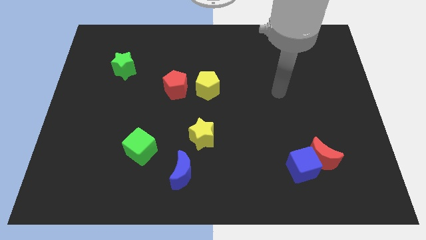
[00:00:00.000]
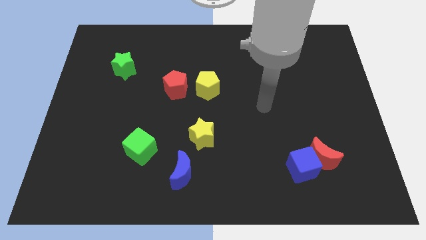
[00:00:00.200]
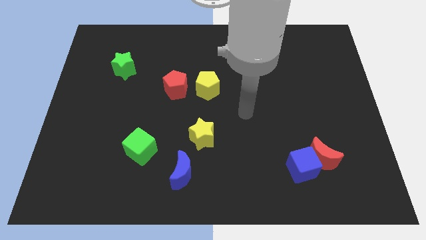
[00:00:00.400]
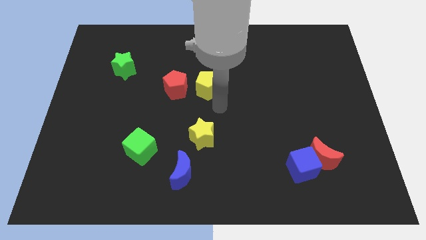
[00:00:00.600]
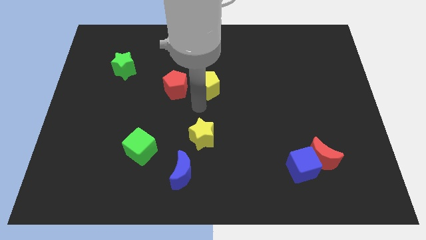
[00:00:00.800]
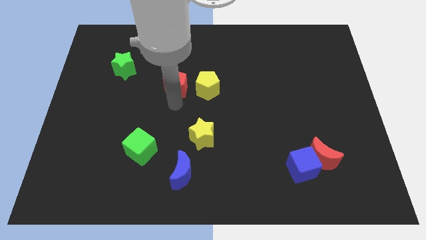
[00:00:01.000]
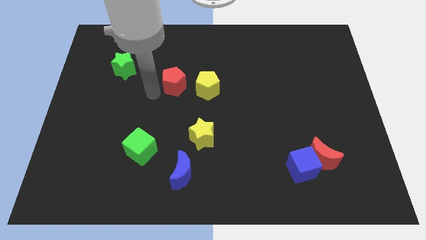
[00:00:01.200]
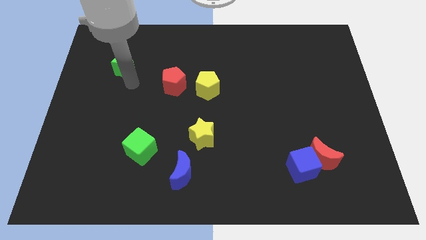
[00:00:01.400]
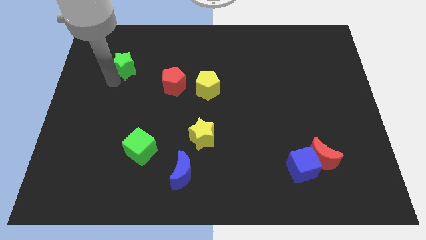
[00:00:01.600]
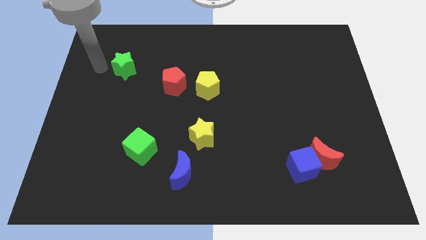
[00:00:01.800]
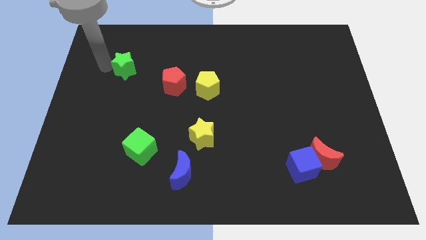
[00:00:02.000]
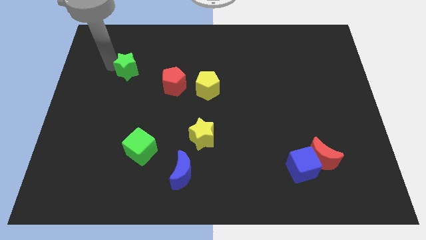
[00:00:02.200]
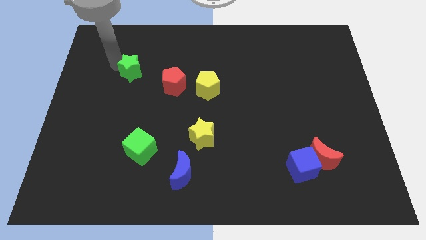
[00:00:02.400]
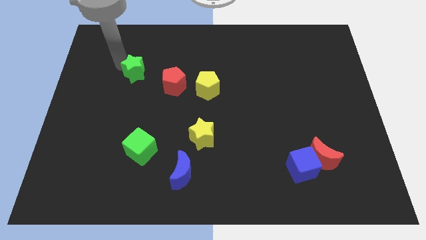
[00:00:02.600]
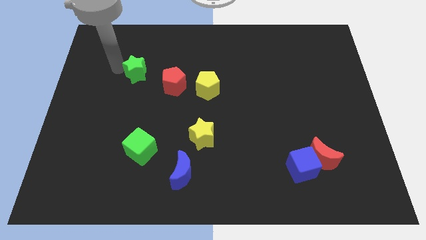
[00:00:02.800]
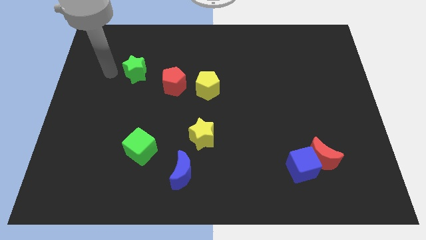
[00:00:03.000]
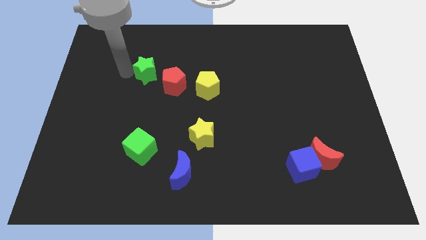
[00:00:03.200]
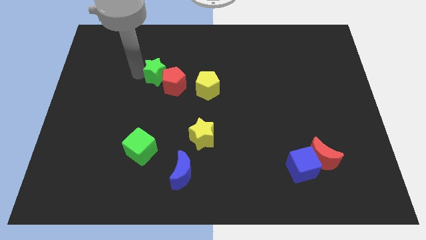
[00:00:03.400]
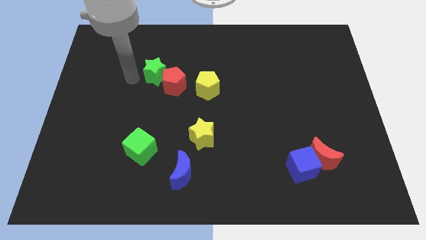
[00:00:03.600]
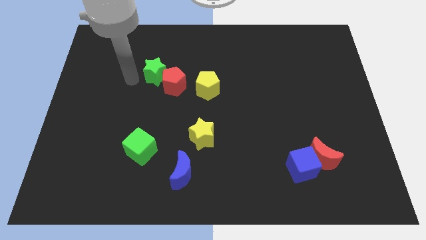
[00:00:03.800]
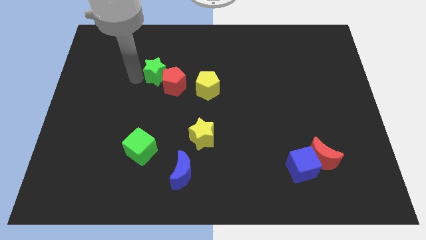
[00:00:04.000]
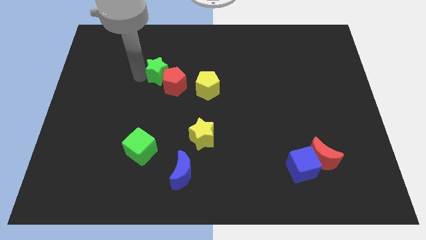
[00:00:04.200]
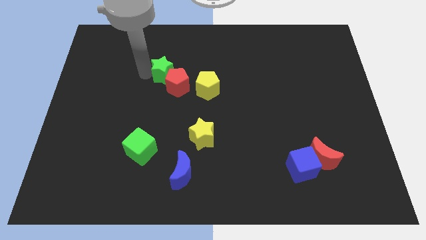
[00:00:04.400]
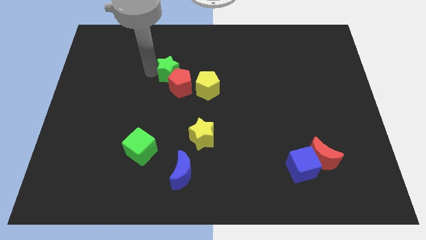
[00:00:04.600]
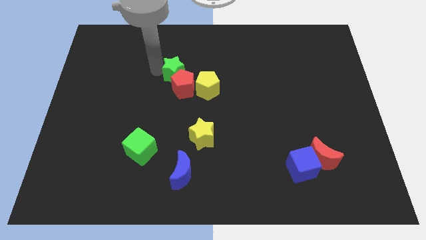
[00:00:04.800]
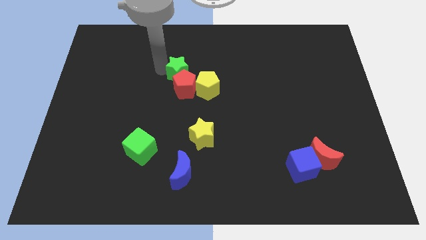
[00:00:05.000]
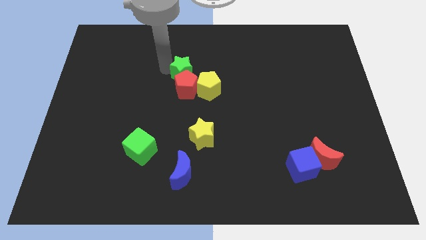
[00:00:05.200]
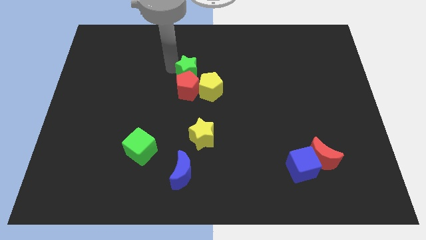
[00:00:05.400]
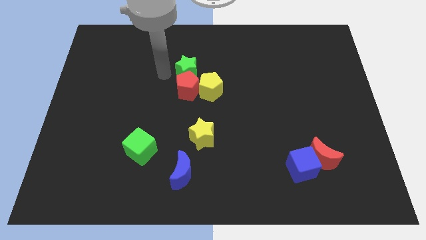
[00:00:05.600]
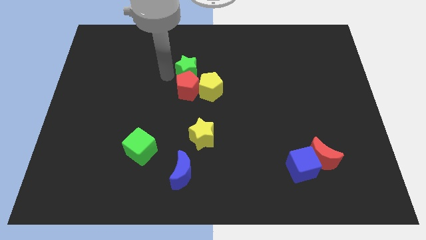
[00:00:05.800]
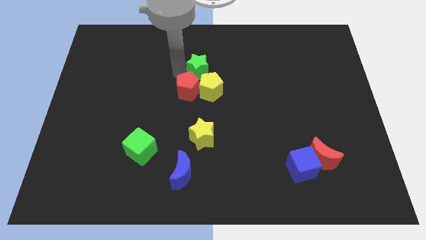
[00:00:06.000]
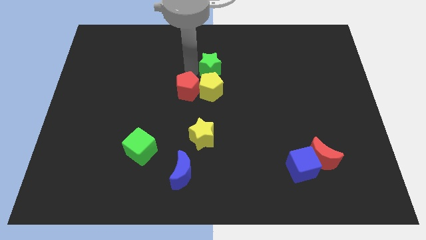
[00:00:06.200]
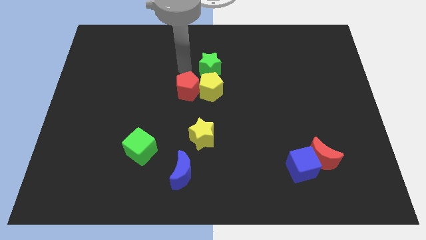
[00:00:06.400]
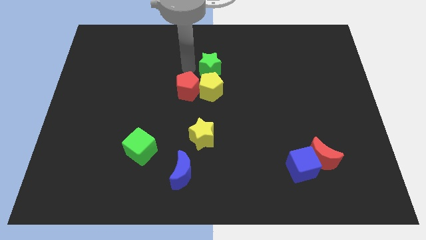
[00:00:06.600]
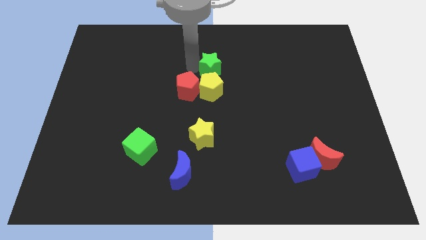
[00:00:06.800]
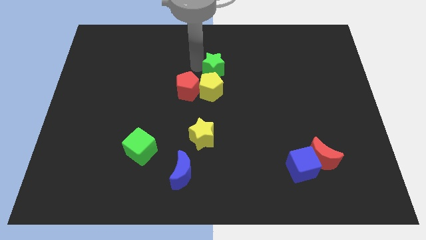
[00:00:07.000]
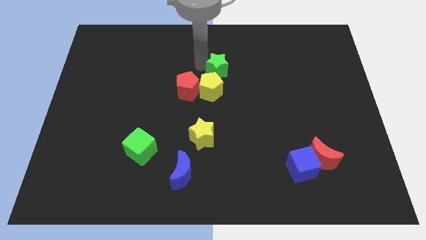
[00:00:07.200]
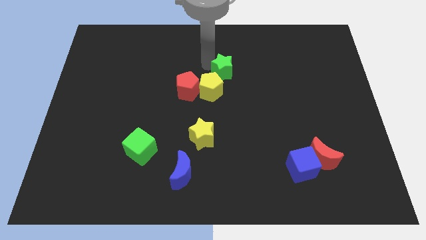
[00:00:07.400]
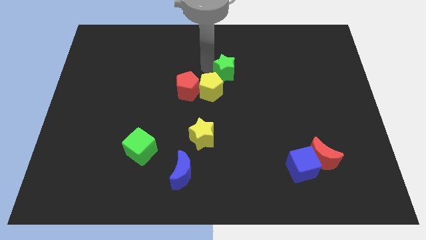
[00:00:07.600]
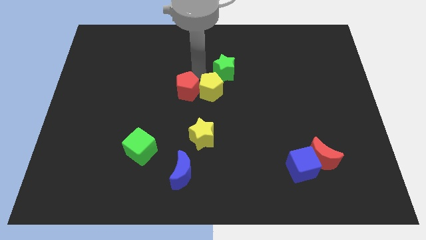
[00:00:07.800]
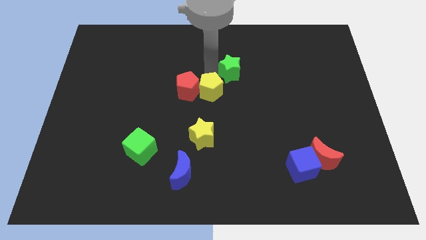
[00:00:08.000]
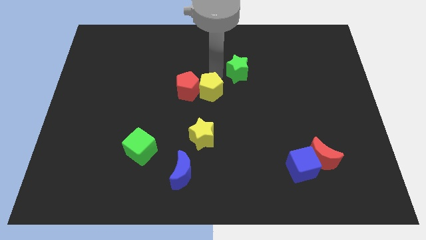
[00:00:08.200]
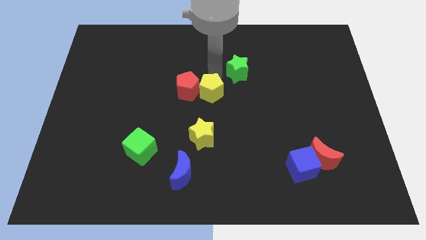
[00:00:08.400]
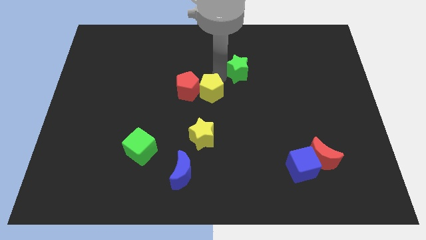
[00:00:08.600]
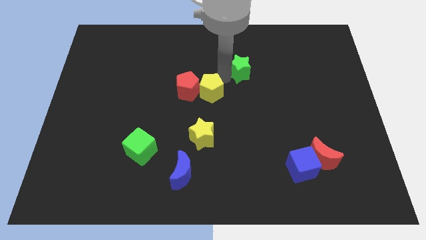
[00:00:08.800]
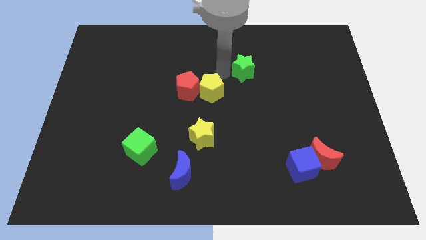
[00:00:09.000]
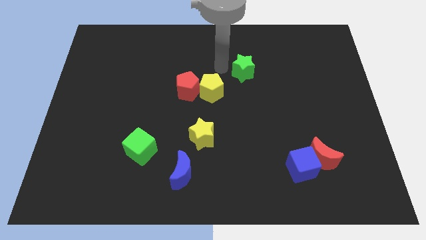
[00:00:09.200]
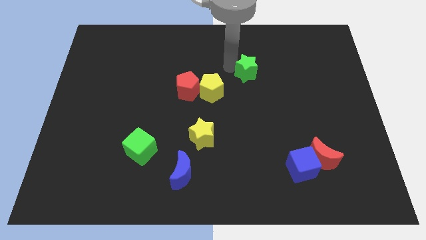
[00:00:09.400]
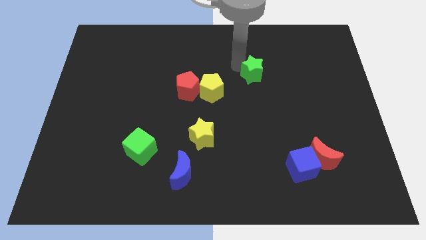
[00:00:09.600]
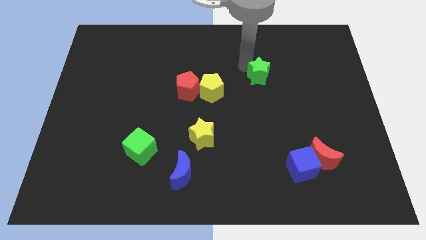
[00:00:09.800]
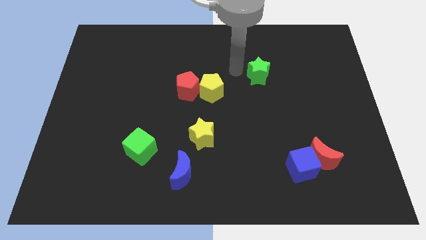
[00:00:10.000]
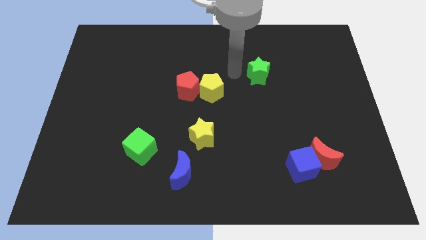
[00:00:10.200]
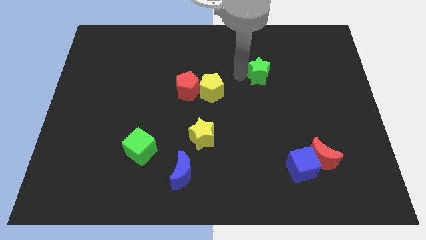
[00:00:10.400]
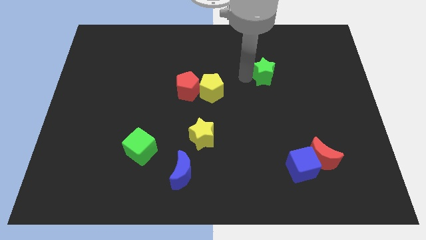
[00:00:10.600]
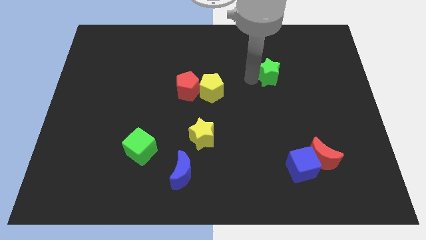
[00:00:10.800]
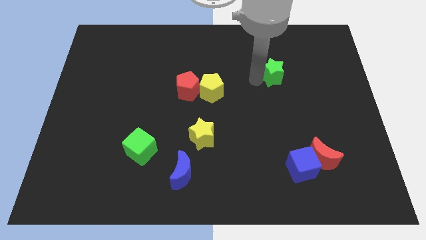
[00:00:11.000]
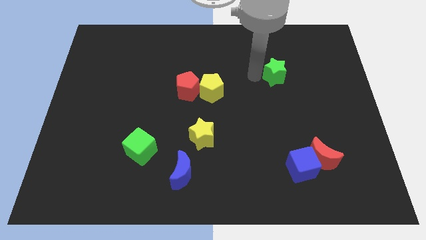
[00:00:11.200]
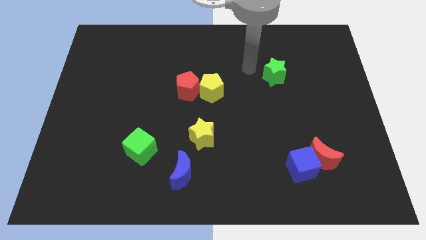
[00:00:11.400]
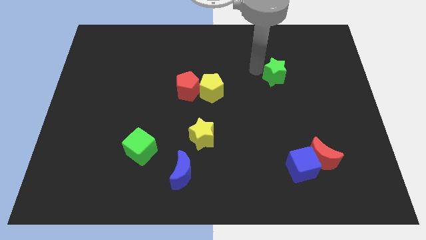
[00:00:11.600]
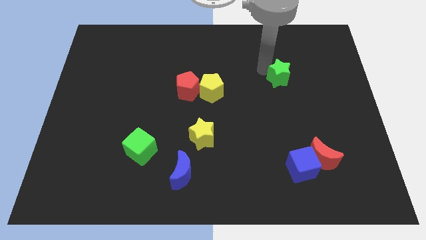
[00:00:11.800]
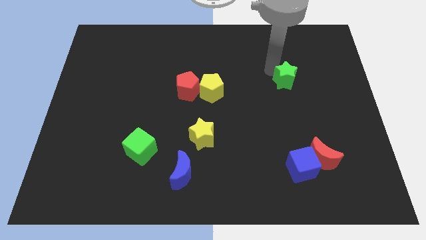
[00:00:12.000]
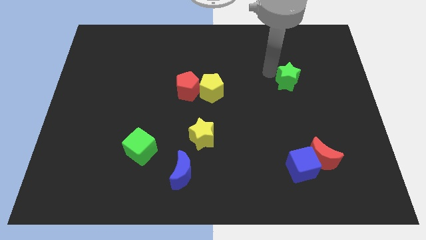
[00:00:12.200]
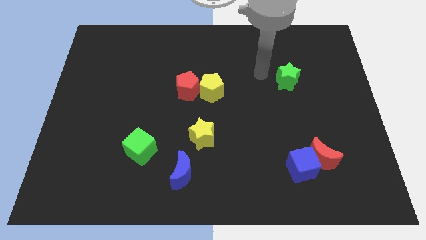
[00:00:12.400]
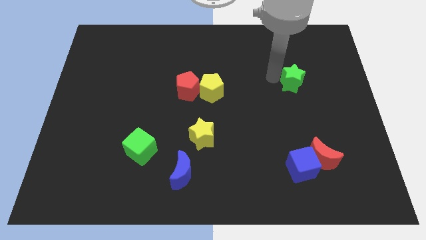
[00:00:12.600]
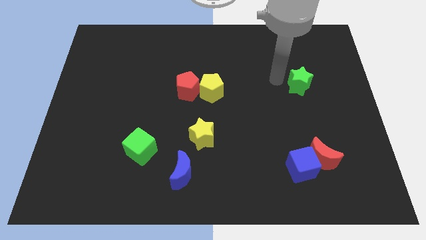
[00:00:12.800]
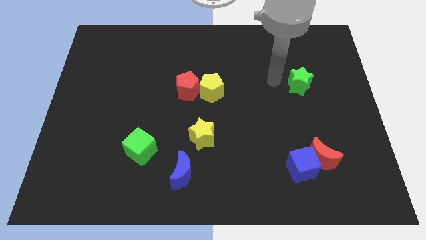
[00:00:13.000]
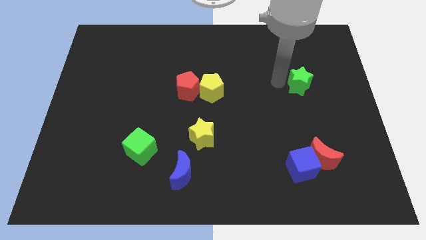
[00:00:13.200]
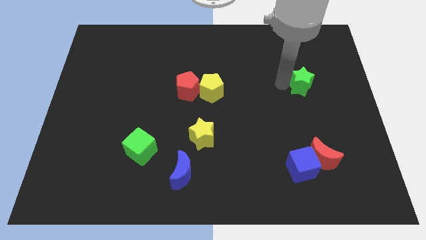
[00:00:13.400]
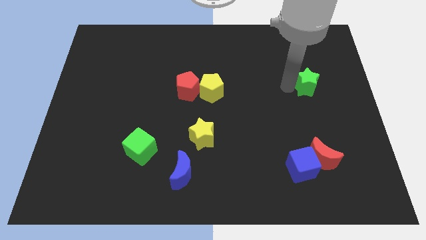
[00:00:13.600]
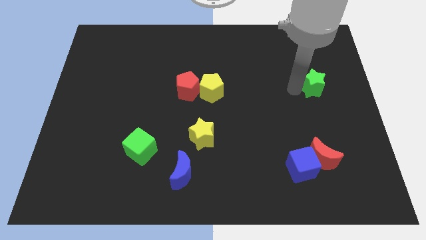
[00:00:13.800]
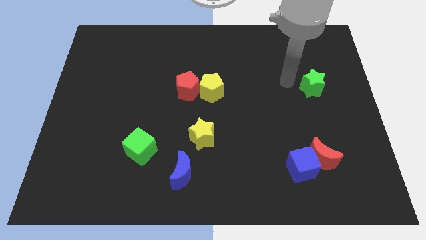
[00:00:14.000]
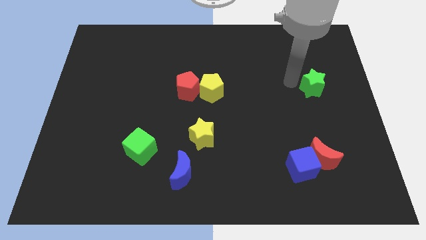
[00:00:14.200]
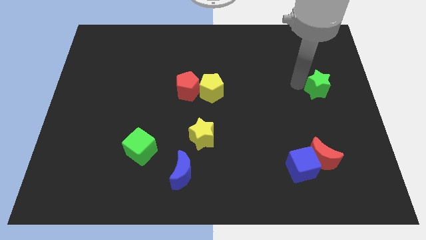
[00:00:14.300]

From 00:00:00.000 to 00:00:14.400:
push the green star to the center right
